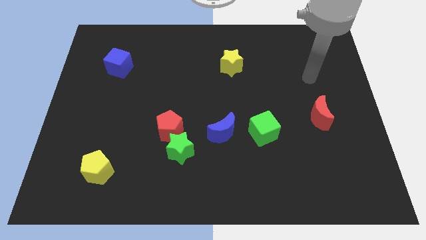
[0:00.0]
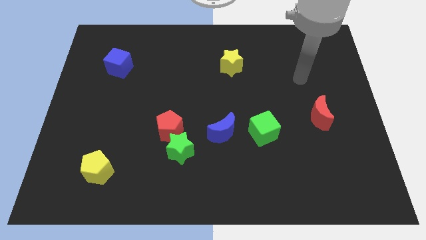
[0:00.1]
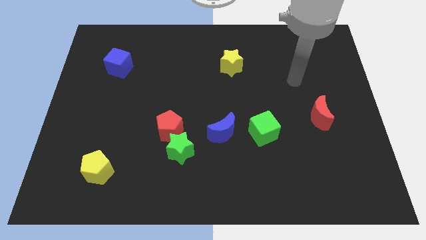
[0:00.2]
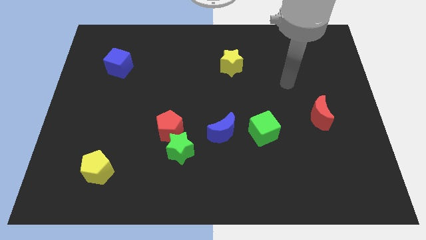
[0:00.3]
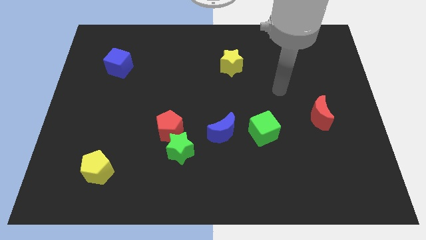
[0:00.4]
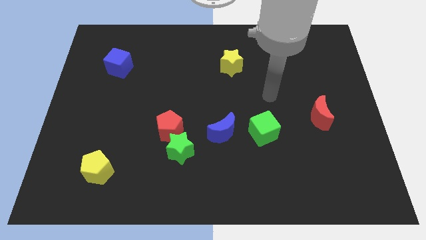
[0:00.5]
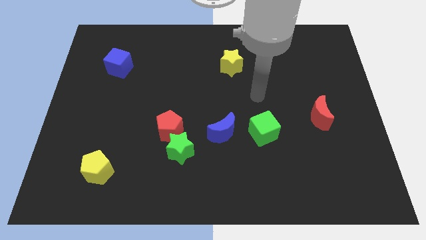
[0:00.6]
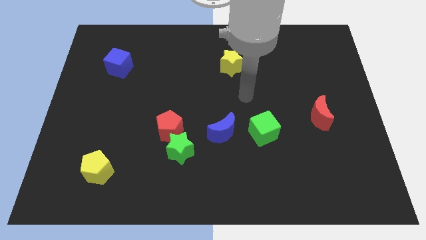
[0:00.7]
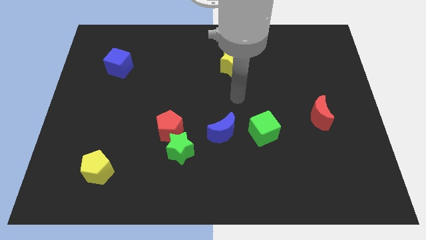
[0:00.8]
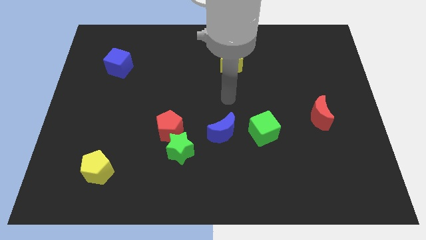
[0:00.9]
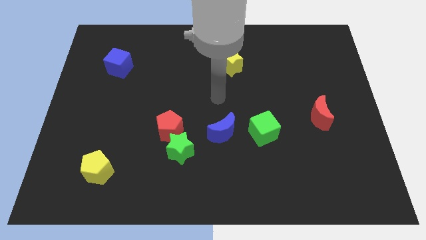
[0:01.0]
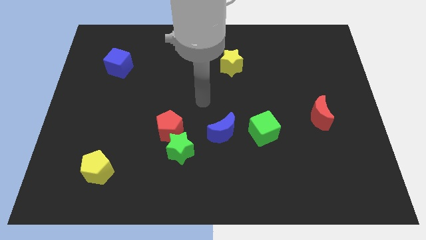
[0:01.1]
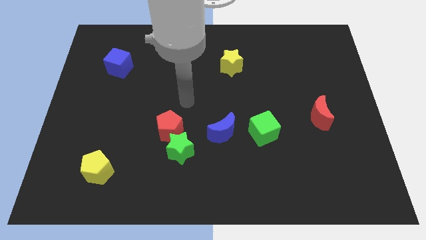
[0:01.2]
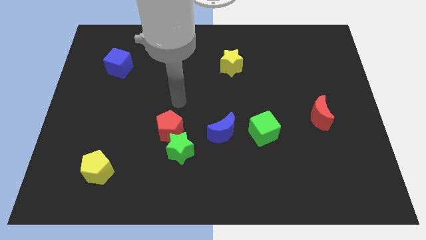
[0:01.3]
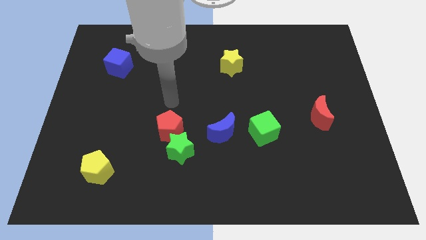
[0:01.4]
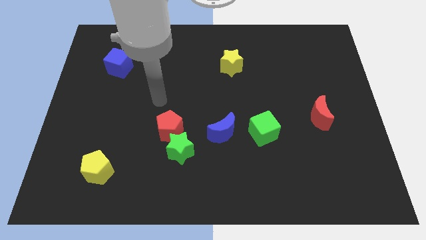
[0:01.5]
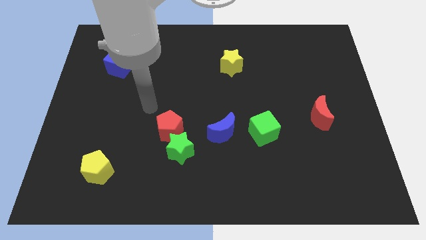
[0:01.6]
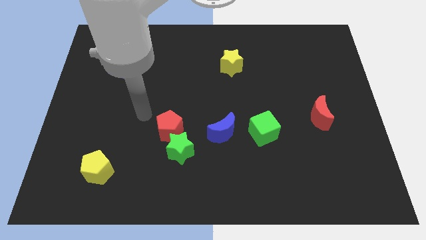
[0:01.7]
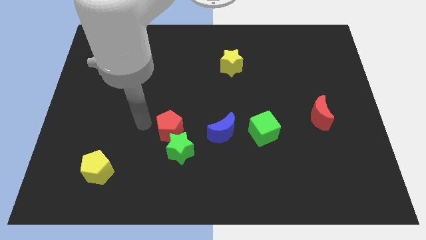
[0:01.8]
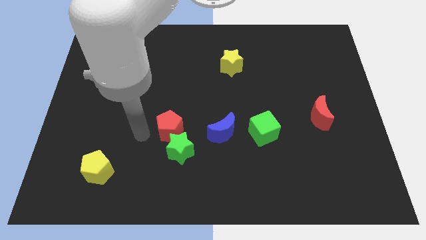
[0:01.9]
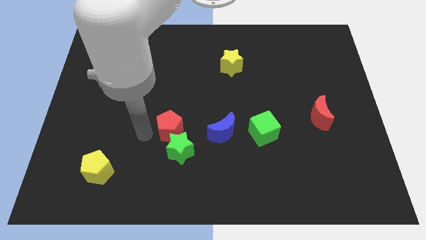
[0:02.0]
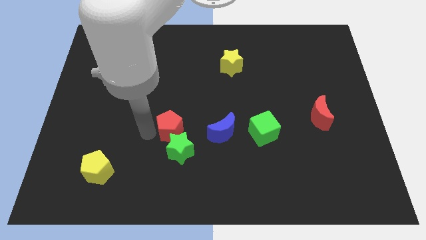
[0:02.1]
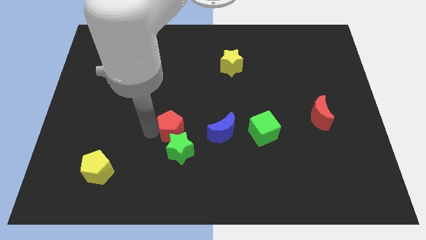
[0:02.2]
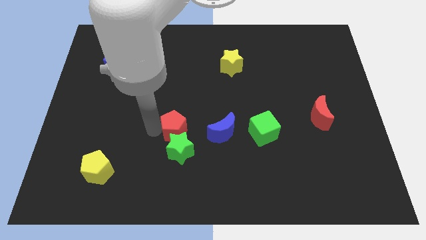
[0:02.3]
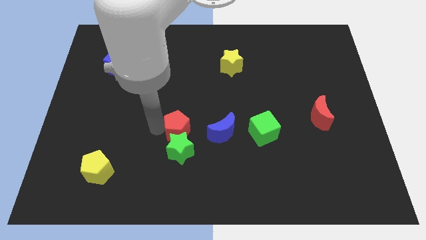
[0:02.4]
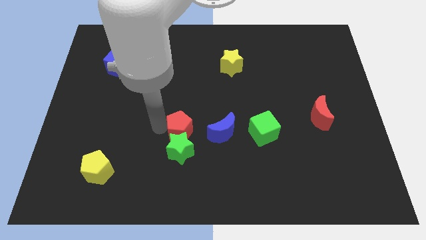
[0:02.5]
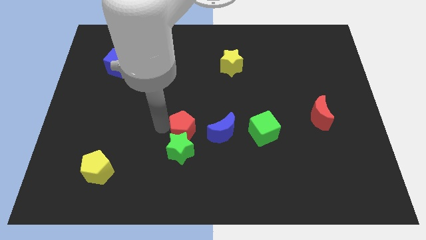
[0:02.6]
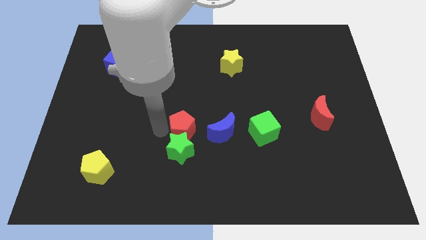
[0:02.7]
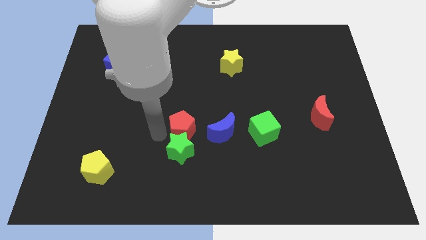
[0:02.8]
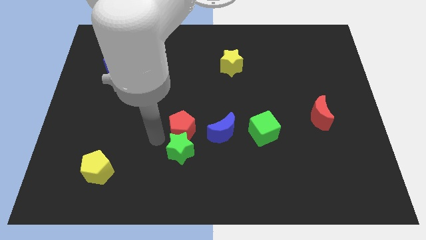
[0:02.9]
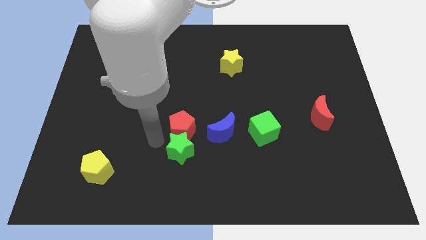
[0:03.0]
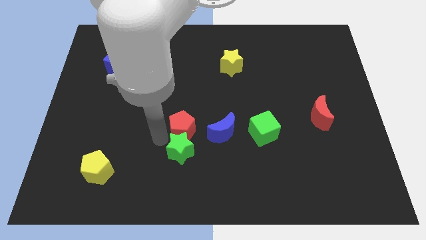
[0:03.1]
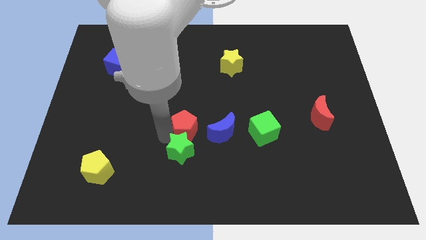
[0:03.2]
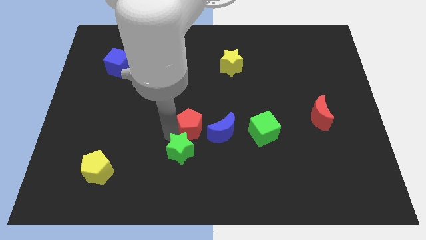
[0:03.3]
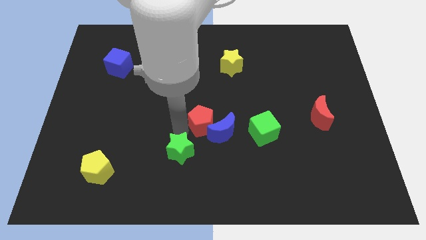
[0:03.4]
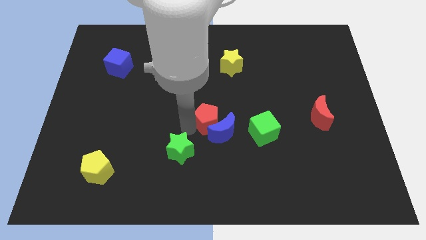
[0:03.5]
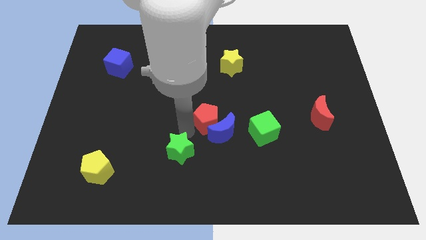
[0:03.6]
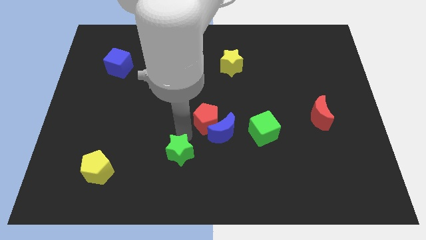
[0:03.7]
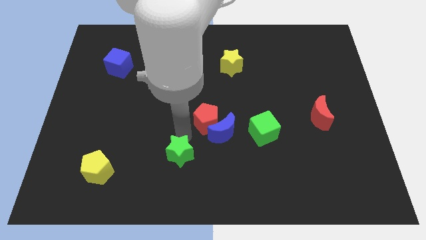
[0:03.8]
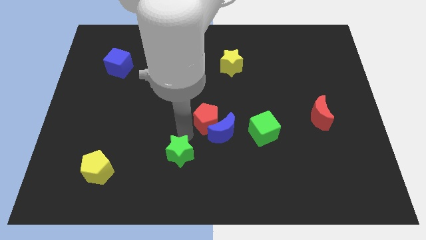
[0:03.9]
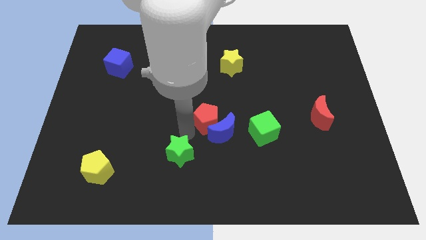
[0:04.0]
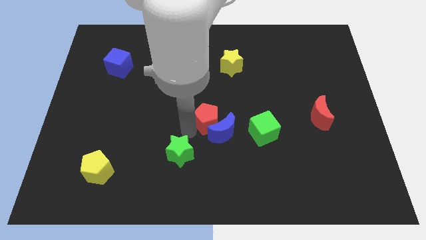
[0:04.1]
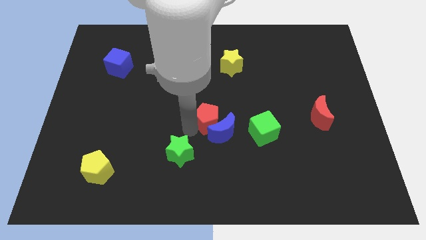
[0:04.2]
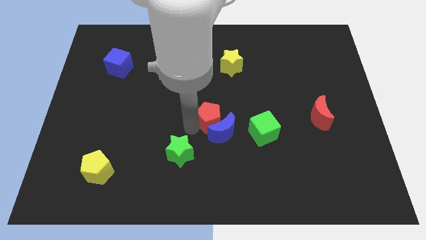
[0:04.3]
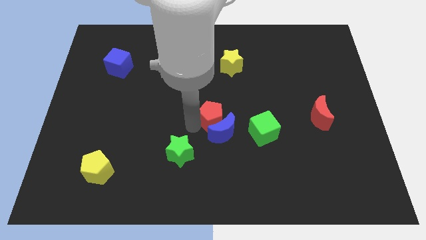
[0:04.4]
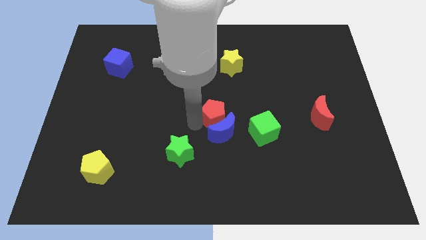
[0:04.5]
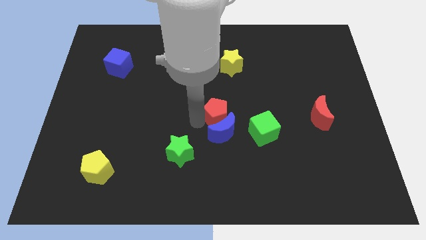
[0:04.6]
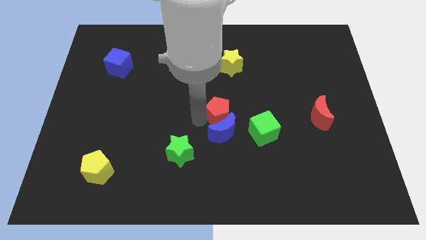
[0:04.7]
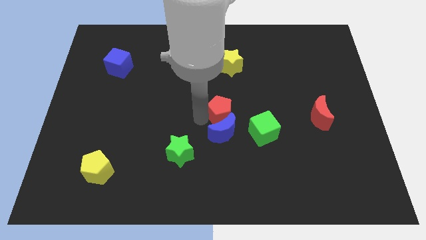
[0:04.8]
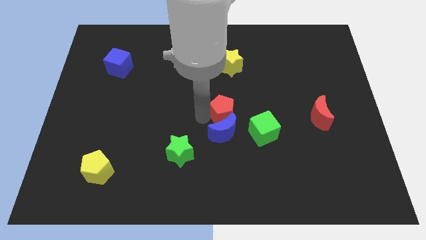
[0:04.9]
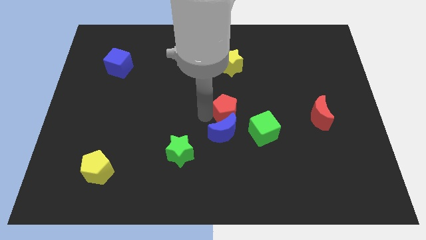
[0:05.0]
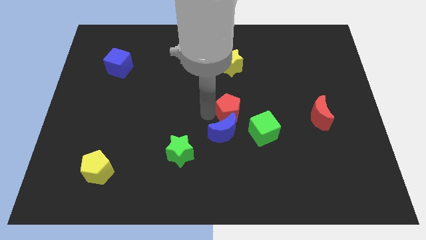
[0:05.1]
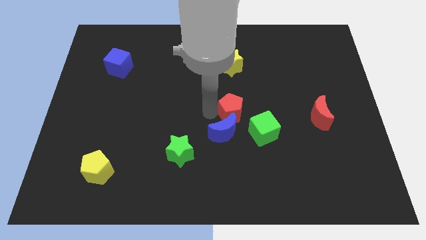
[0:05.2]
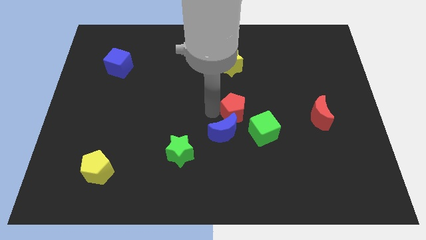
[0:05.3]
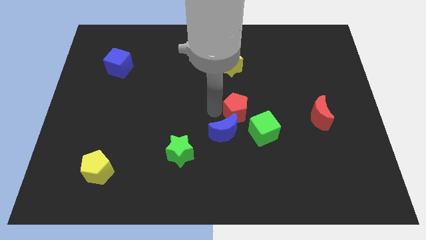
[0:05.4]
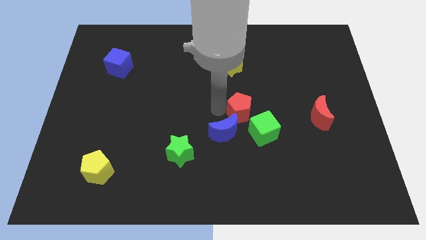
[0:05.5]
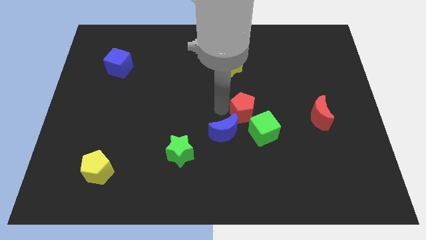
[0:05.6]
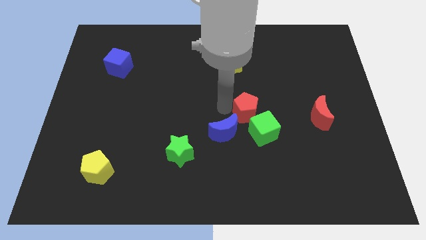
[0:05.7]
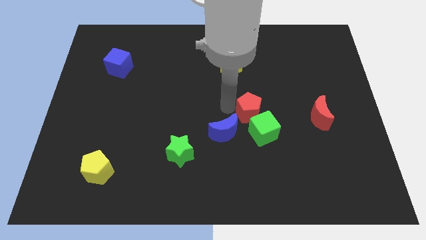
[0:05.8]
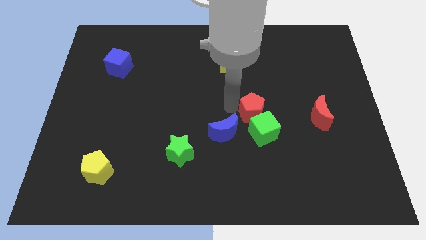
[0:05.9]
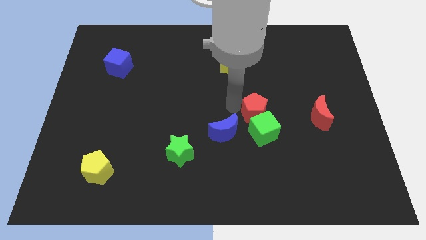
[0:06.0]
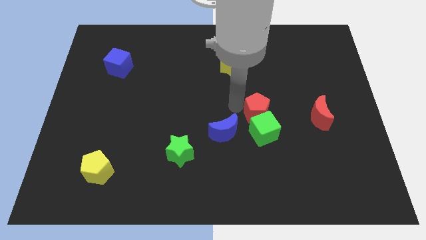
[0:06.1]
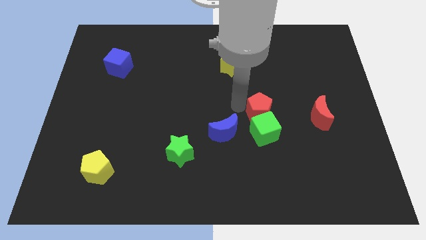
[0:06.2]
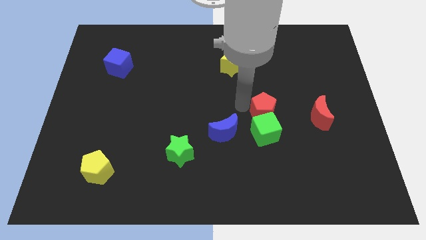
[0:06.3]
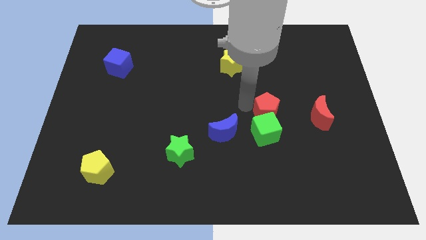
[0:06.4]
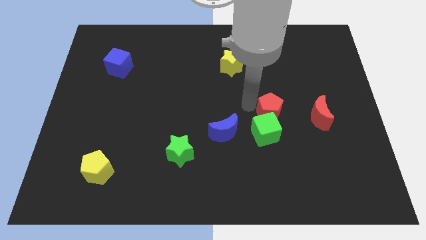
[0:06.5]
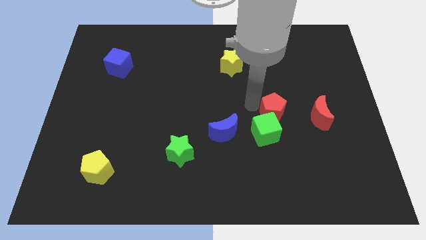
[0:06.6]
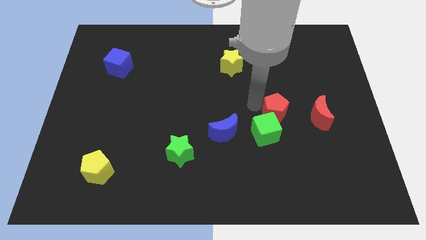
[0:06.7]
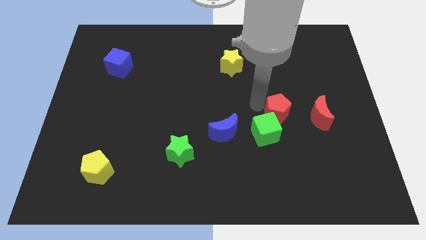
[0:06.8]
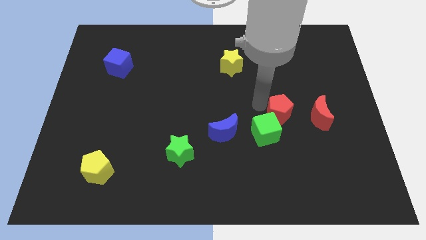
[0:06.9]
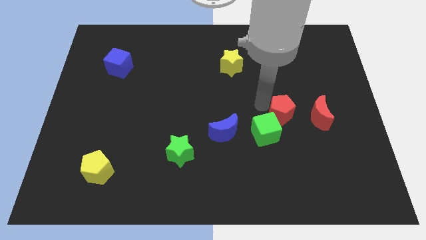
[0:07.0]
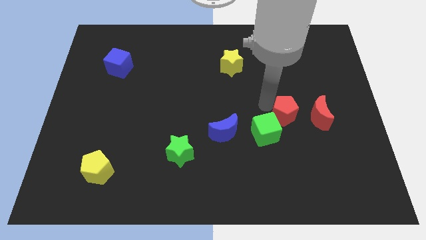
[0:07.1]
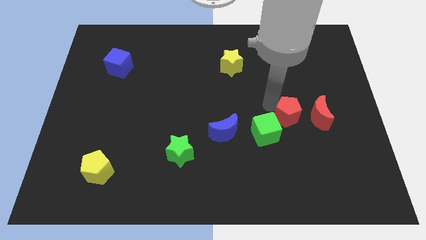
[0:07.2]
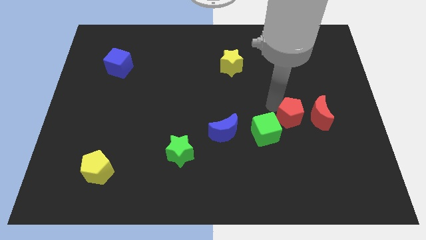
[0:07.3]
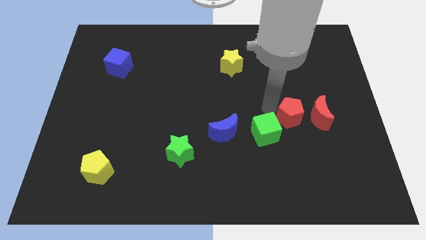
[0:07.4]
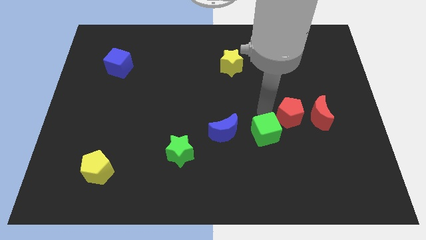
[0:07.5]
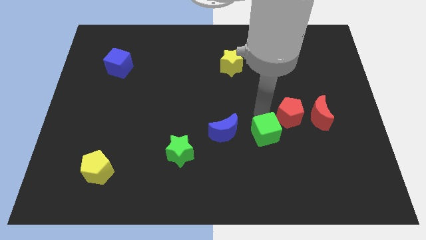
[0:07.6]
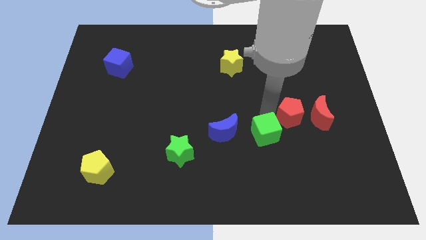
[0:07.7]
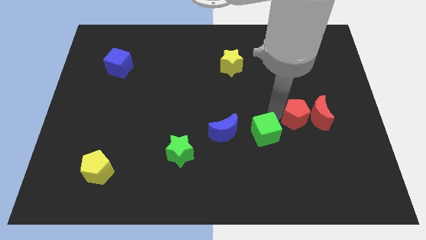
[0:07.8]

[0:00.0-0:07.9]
move the red pentagon close to the red moon
